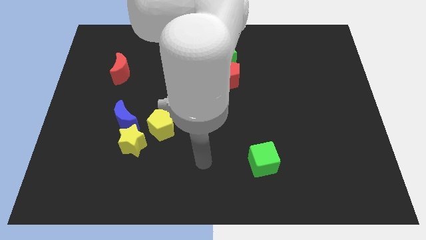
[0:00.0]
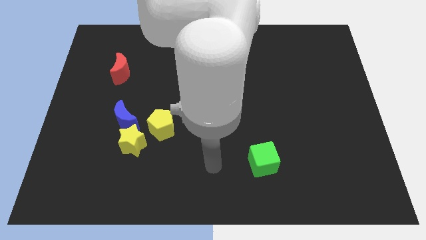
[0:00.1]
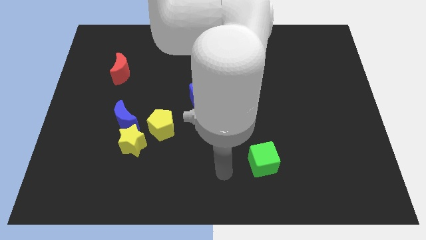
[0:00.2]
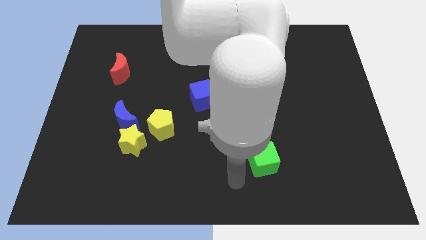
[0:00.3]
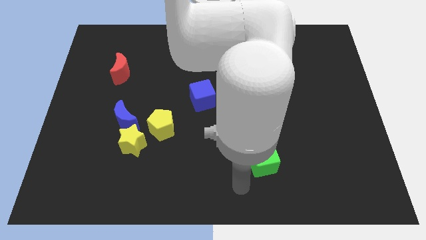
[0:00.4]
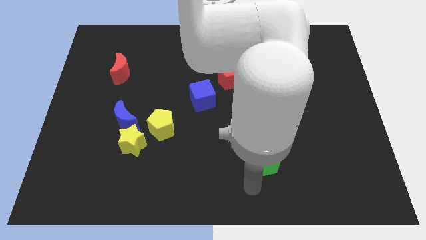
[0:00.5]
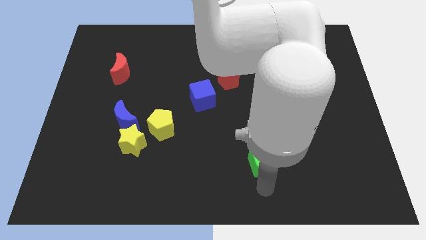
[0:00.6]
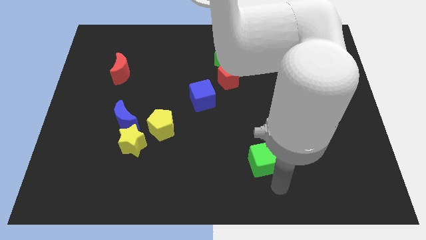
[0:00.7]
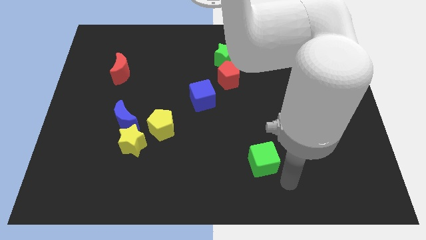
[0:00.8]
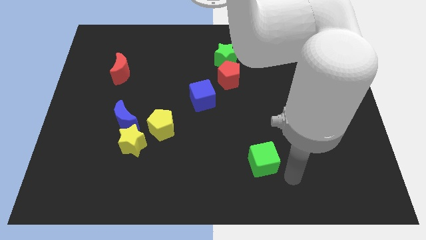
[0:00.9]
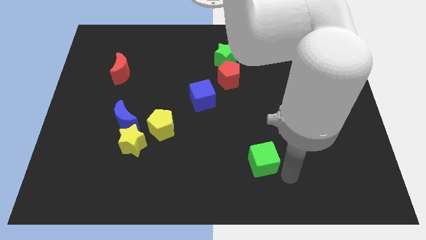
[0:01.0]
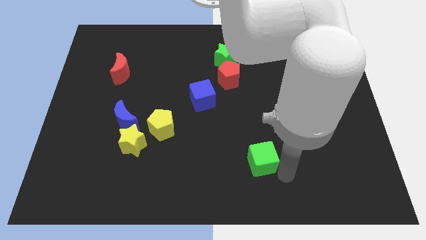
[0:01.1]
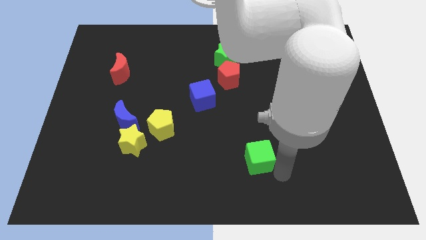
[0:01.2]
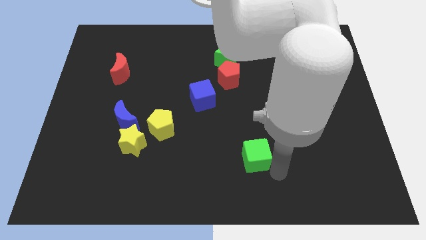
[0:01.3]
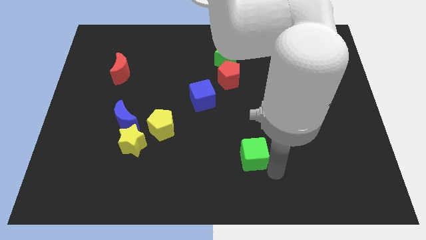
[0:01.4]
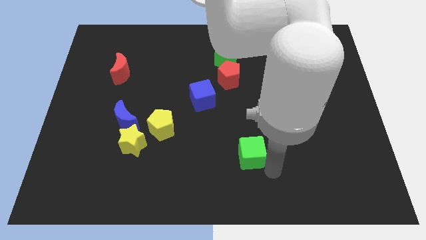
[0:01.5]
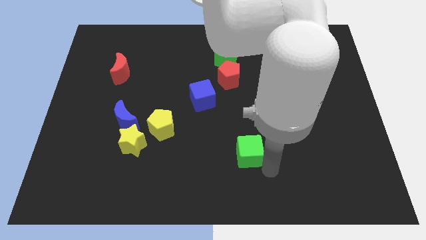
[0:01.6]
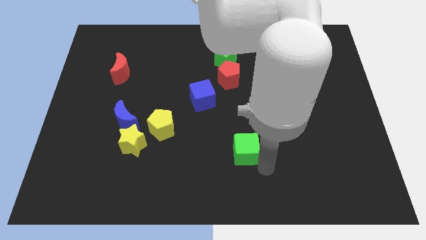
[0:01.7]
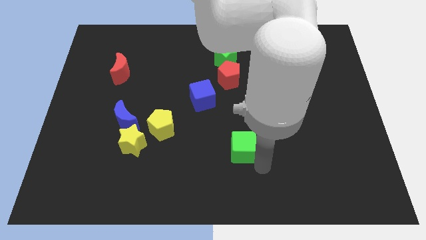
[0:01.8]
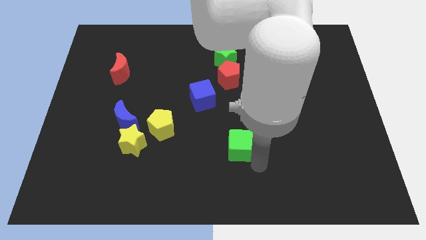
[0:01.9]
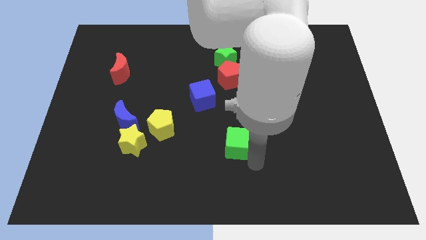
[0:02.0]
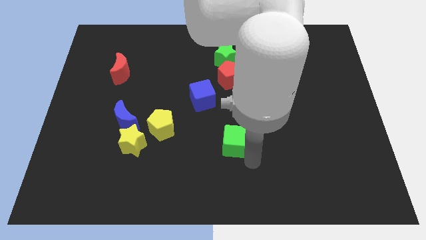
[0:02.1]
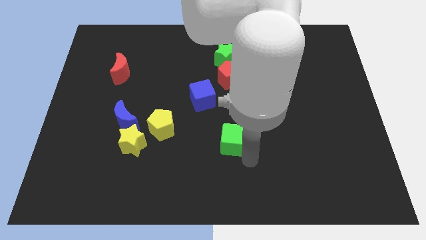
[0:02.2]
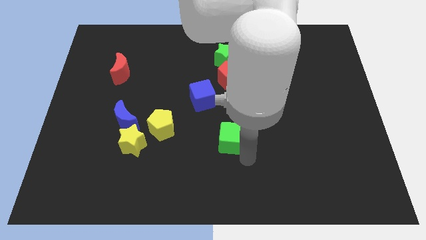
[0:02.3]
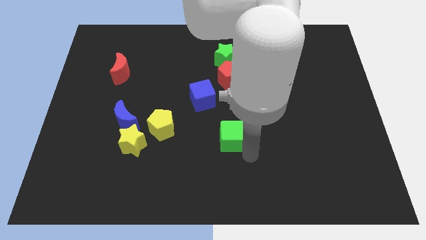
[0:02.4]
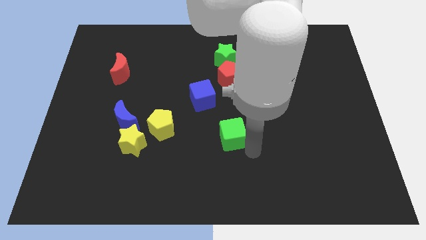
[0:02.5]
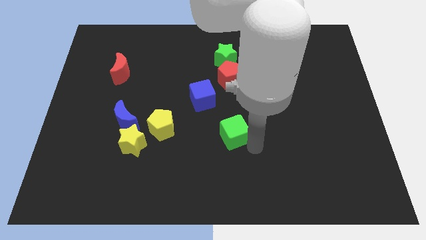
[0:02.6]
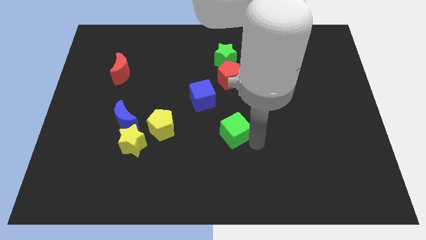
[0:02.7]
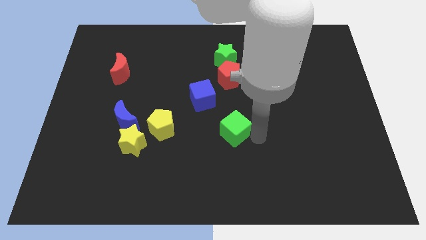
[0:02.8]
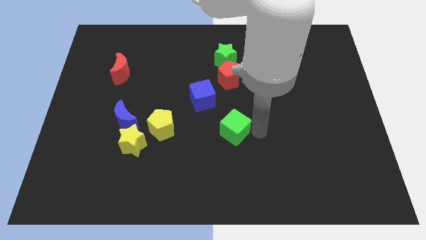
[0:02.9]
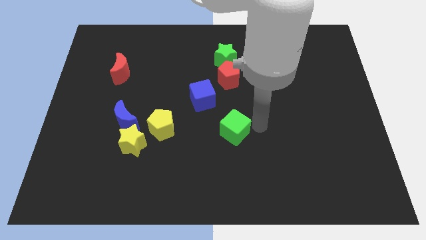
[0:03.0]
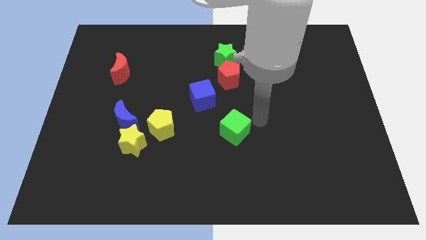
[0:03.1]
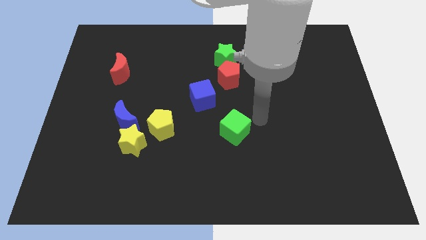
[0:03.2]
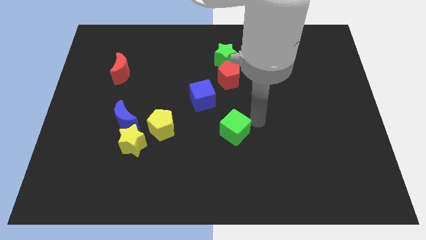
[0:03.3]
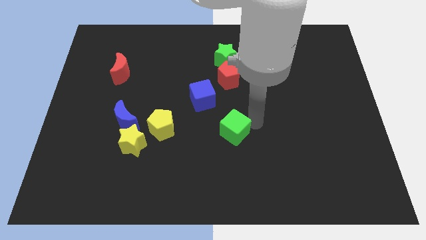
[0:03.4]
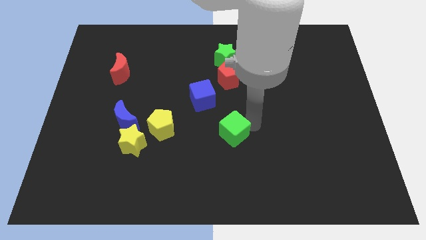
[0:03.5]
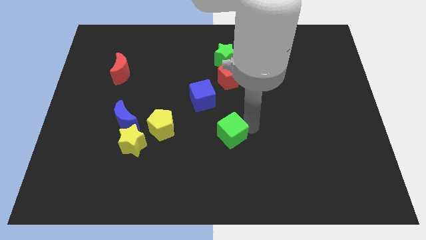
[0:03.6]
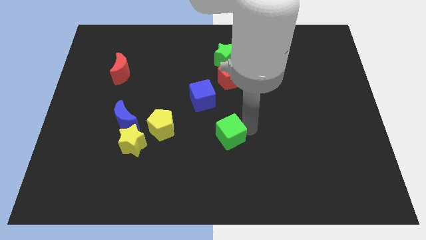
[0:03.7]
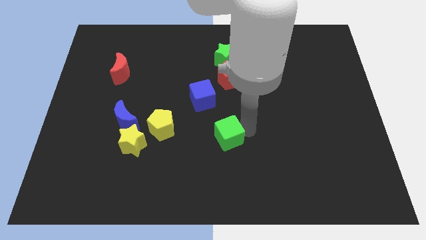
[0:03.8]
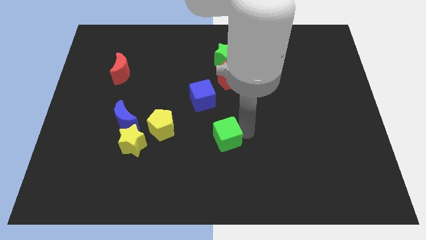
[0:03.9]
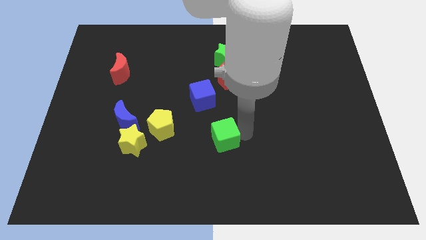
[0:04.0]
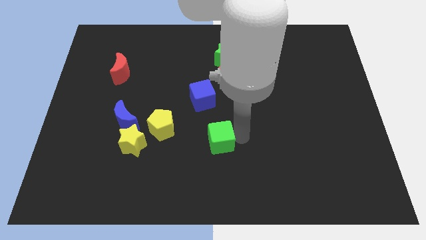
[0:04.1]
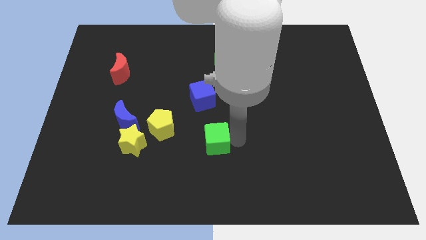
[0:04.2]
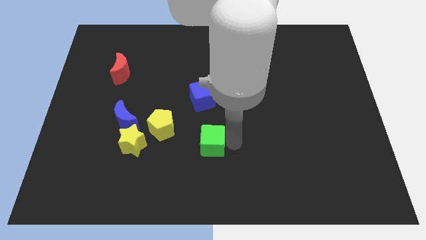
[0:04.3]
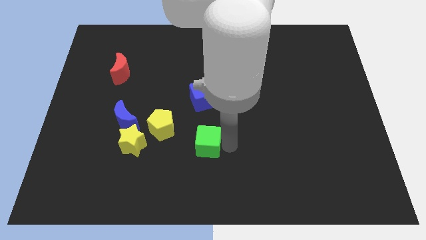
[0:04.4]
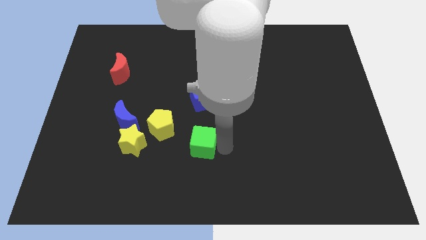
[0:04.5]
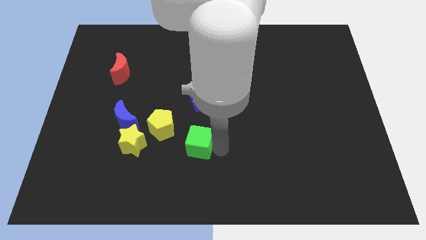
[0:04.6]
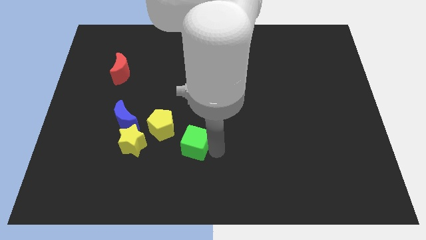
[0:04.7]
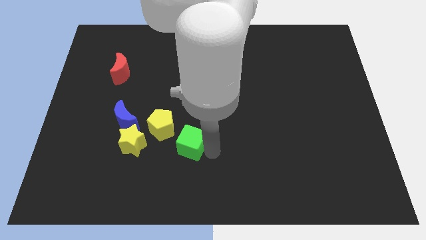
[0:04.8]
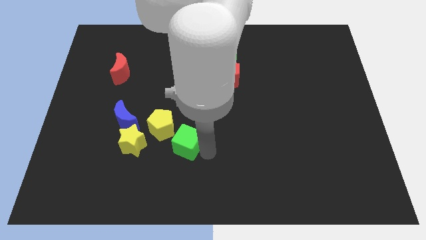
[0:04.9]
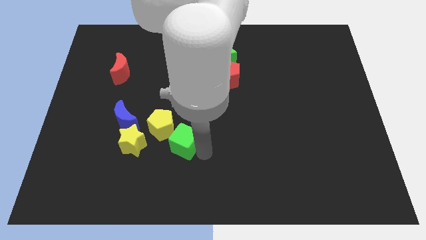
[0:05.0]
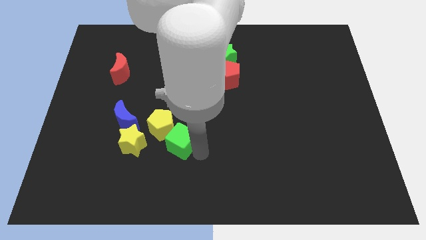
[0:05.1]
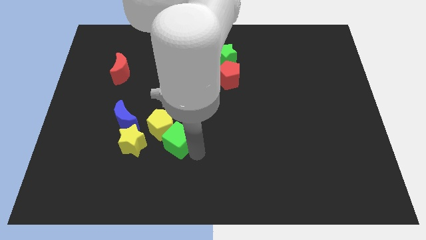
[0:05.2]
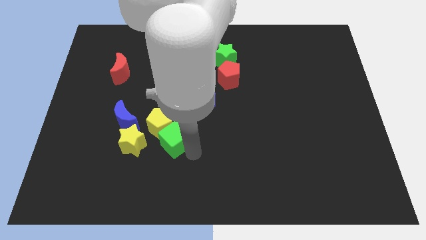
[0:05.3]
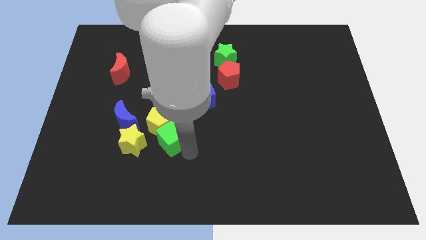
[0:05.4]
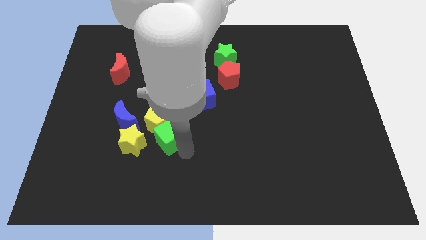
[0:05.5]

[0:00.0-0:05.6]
move the green cube to the right of the blue moon
